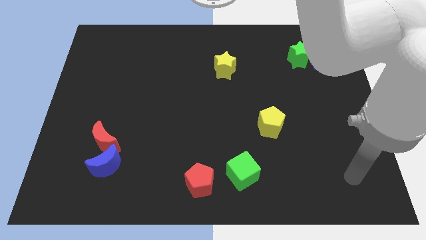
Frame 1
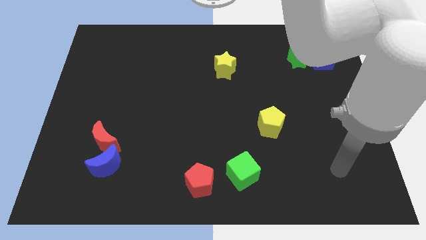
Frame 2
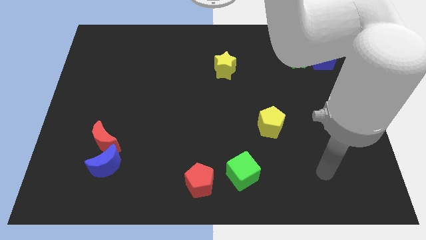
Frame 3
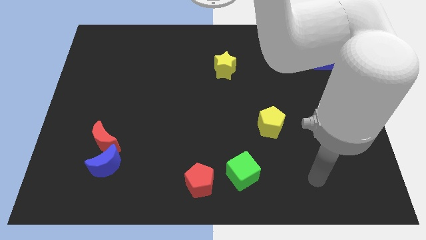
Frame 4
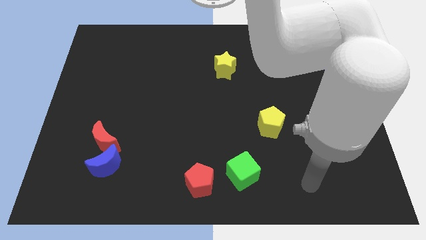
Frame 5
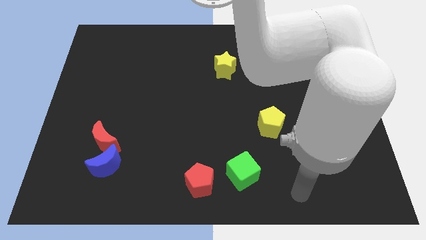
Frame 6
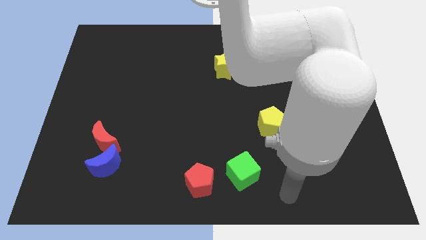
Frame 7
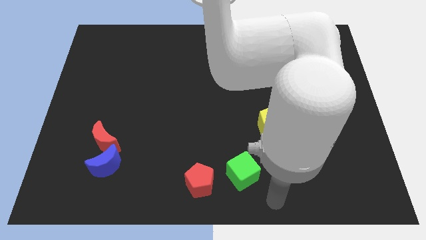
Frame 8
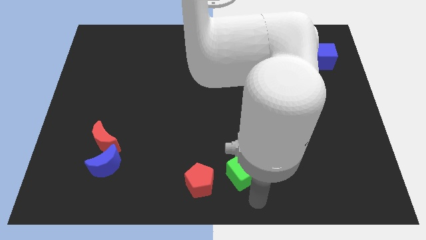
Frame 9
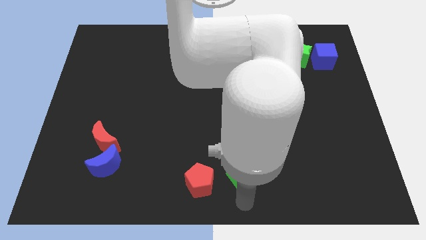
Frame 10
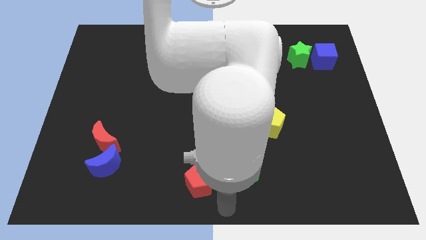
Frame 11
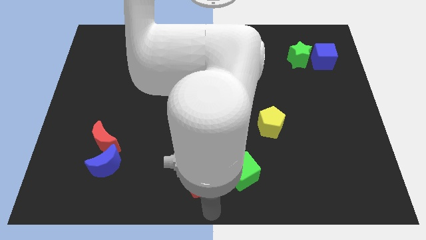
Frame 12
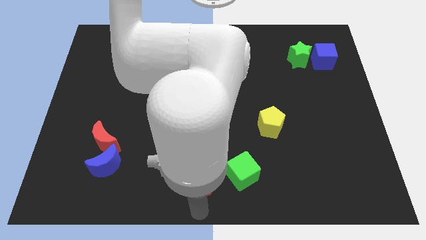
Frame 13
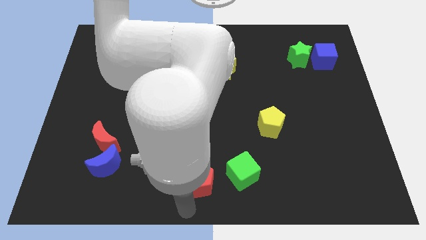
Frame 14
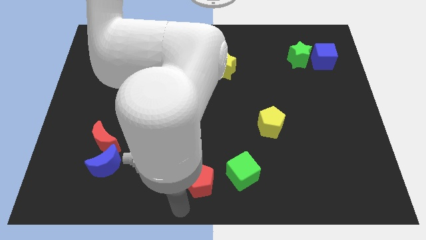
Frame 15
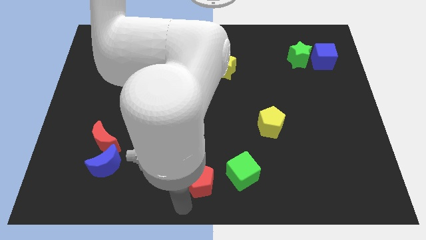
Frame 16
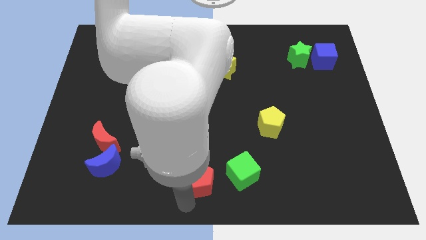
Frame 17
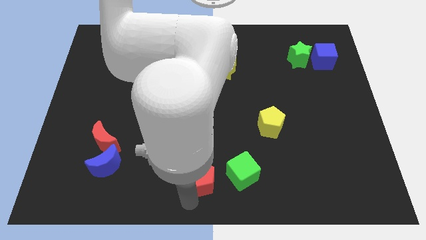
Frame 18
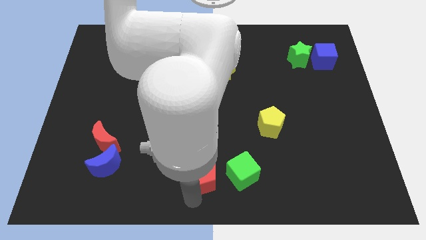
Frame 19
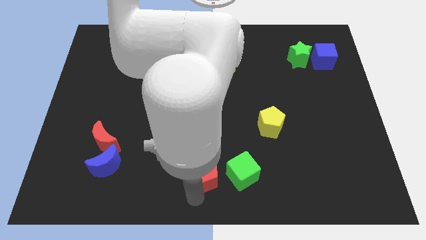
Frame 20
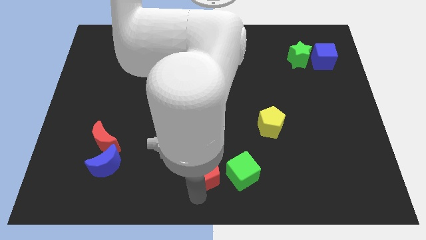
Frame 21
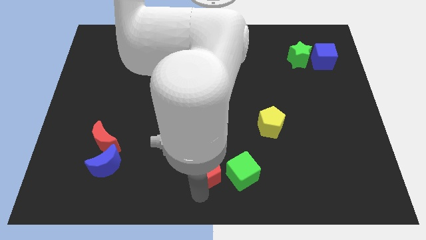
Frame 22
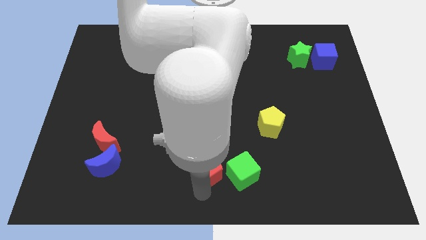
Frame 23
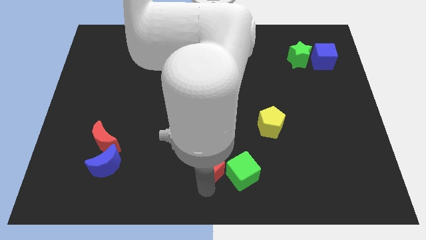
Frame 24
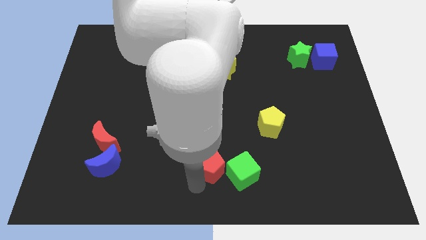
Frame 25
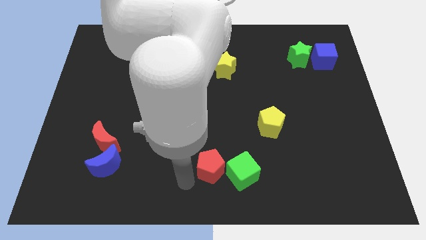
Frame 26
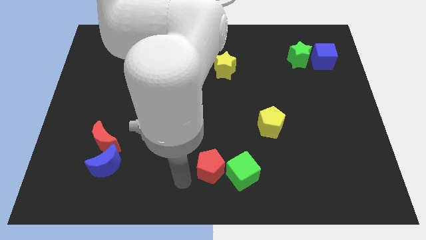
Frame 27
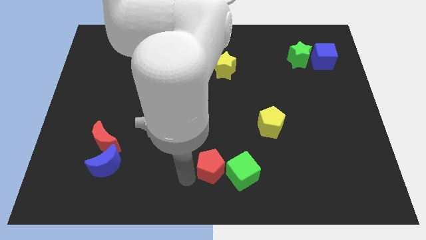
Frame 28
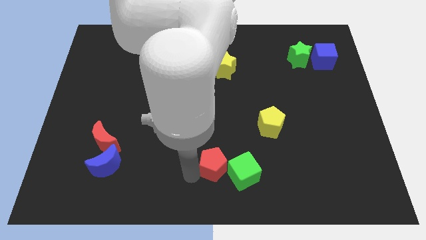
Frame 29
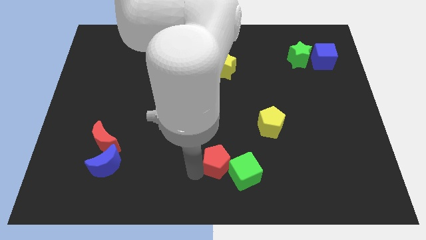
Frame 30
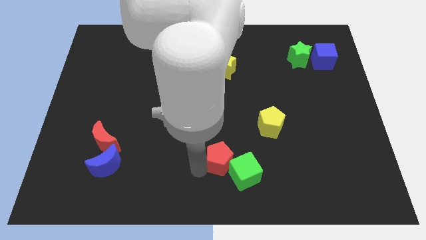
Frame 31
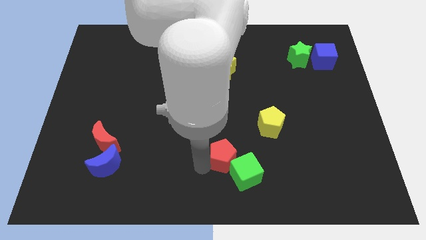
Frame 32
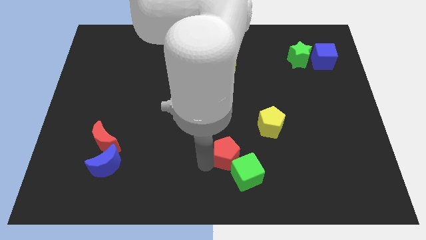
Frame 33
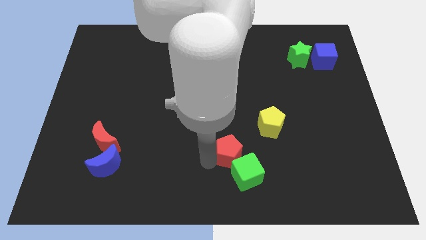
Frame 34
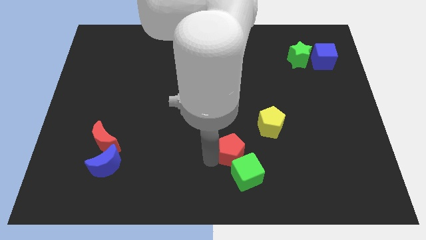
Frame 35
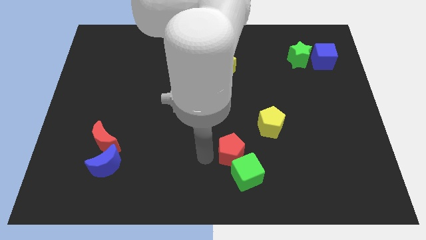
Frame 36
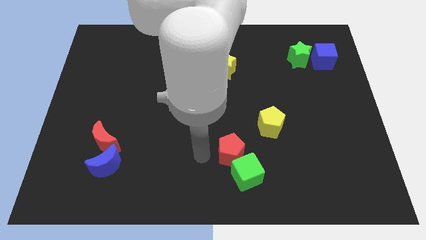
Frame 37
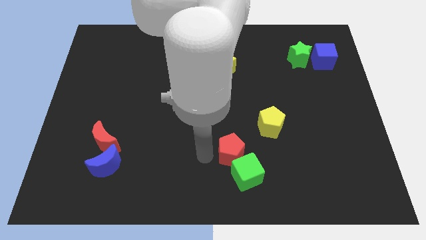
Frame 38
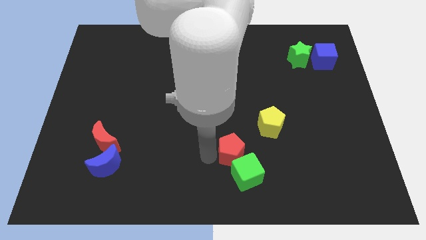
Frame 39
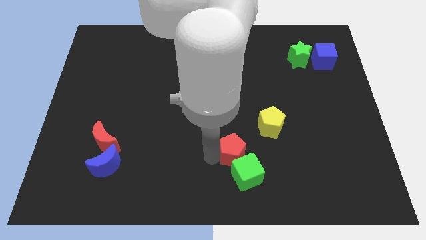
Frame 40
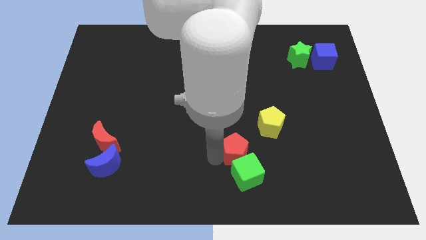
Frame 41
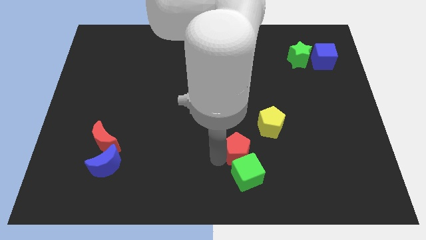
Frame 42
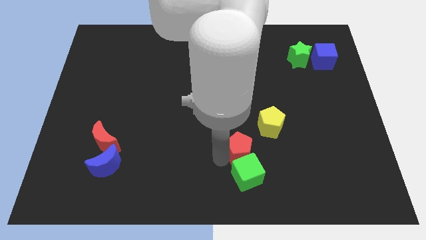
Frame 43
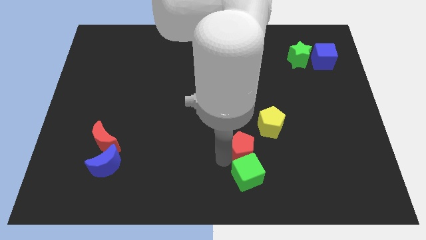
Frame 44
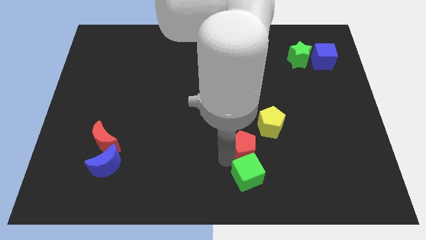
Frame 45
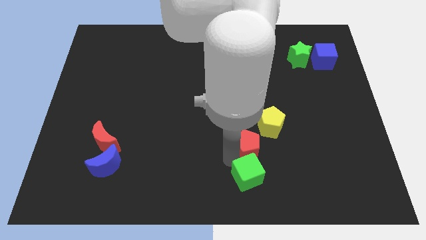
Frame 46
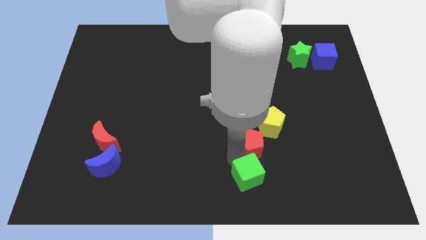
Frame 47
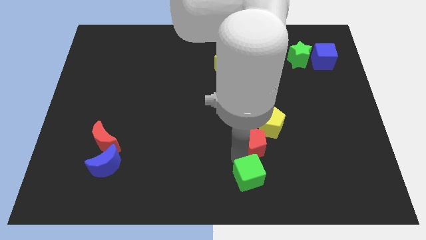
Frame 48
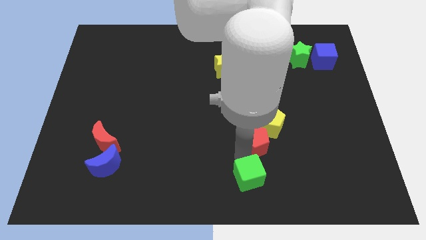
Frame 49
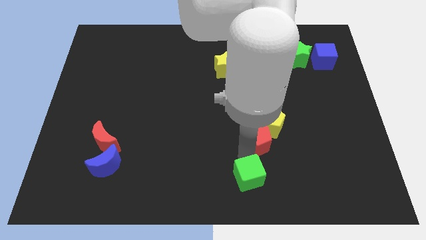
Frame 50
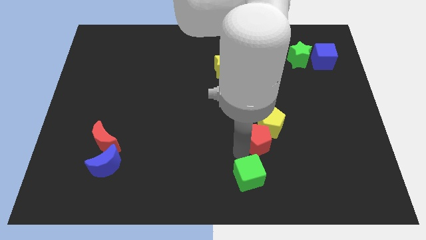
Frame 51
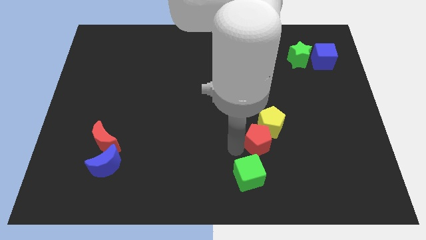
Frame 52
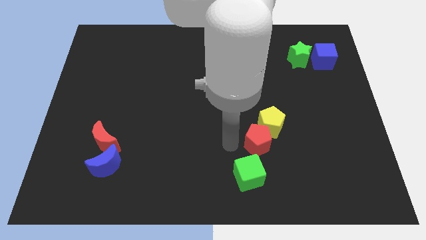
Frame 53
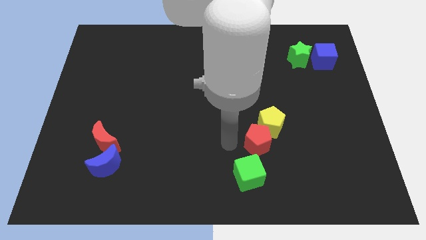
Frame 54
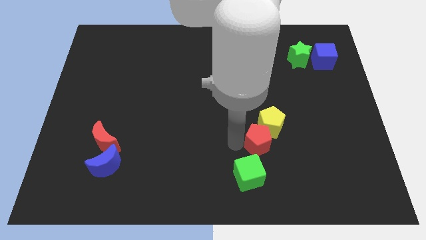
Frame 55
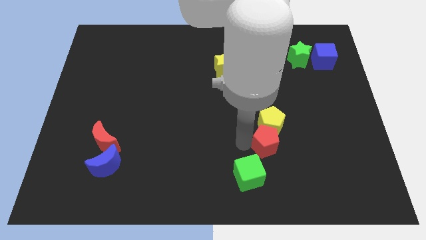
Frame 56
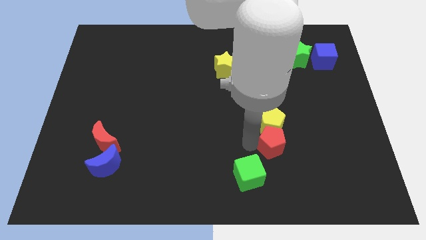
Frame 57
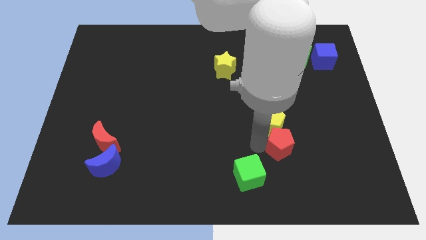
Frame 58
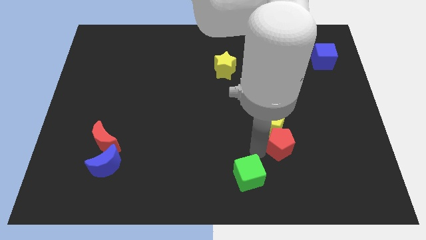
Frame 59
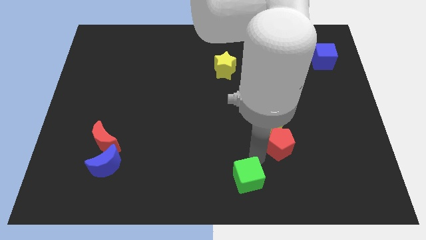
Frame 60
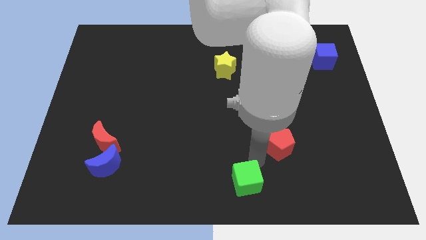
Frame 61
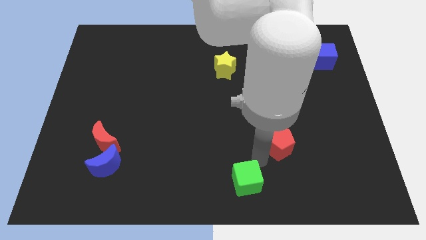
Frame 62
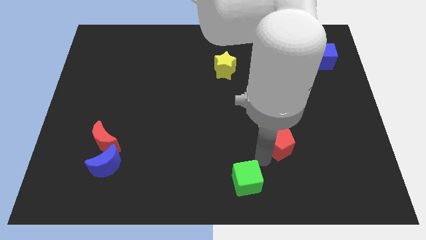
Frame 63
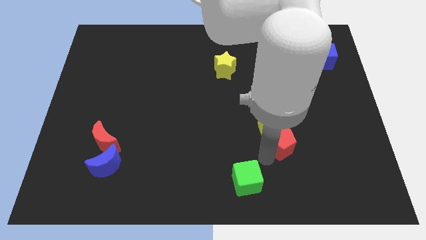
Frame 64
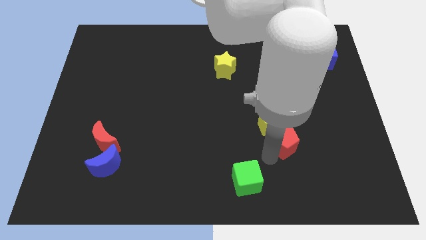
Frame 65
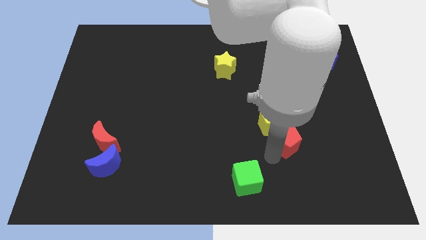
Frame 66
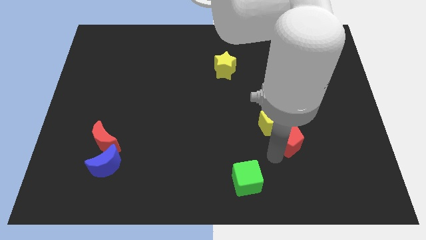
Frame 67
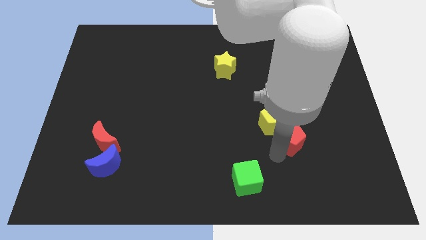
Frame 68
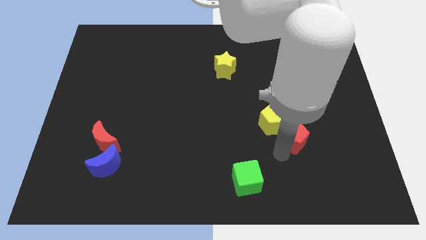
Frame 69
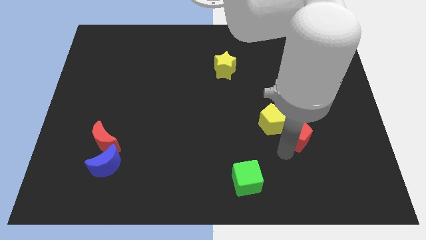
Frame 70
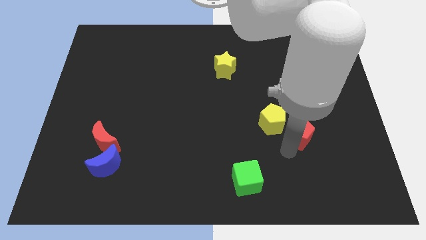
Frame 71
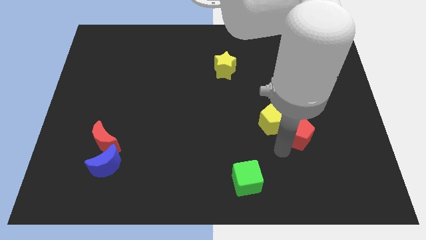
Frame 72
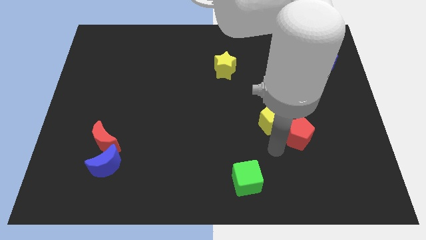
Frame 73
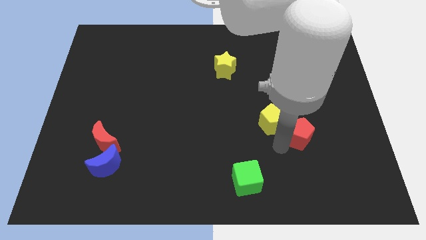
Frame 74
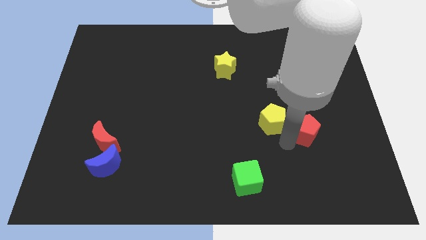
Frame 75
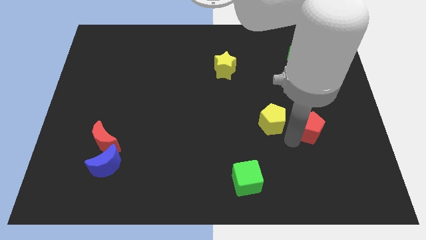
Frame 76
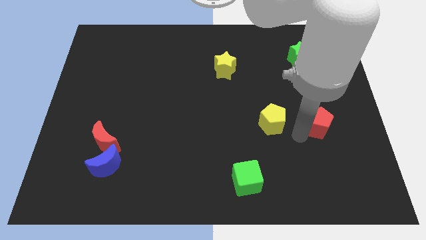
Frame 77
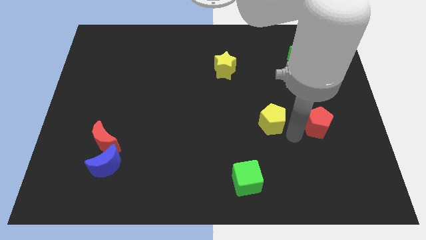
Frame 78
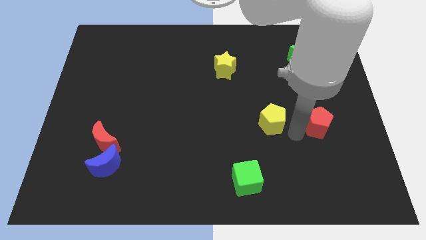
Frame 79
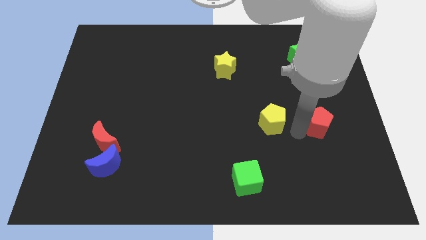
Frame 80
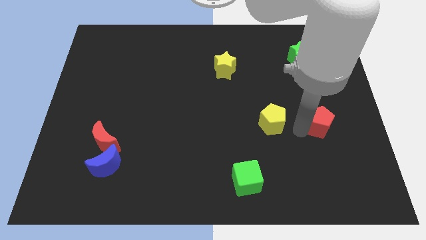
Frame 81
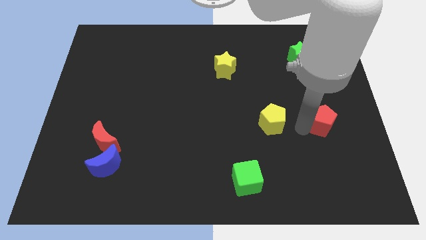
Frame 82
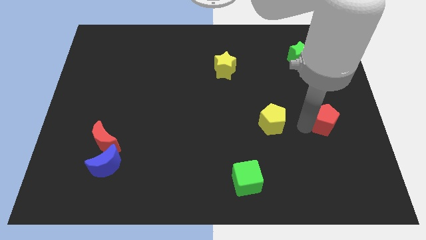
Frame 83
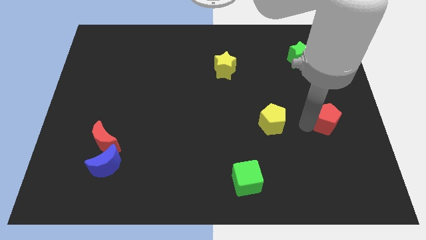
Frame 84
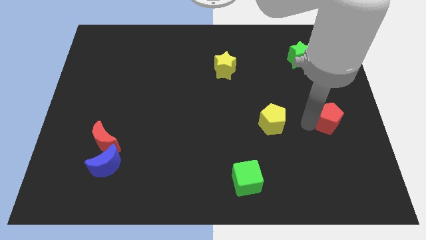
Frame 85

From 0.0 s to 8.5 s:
push the red pentagon to the right side of the board
